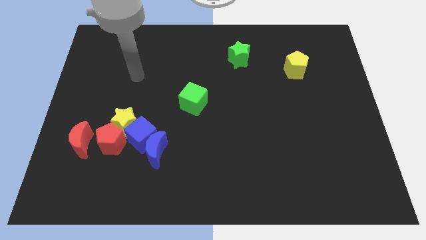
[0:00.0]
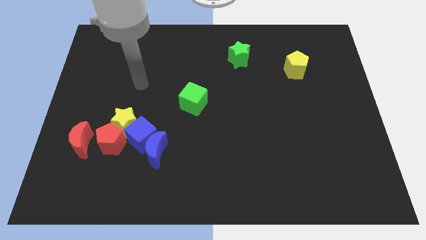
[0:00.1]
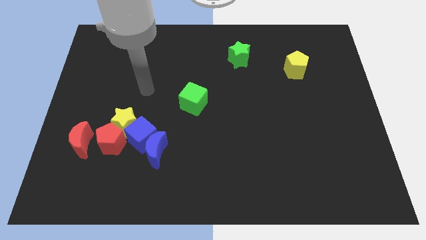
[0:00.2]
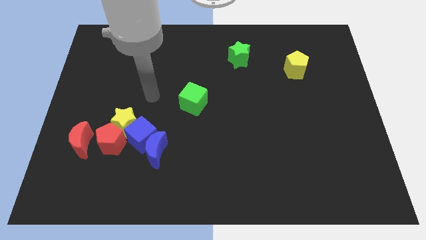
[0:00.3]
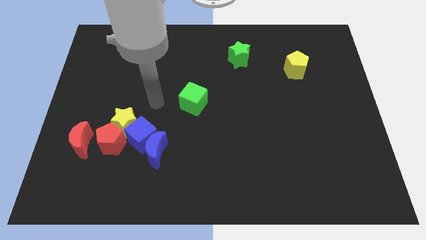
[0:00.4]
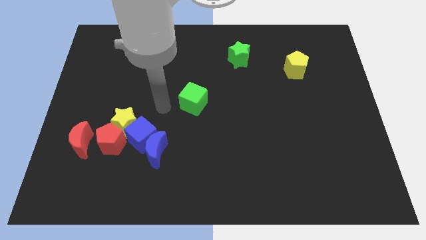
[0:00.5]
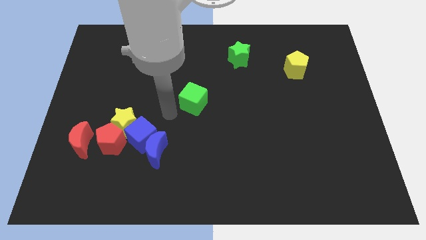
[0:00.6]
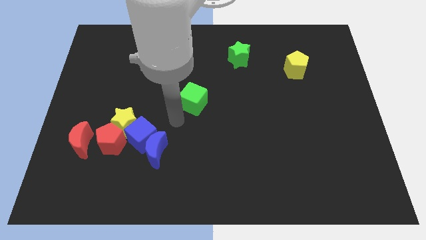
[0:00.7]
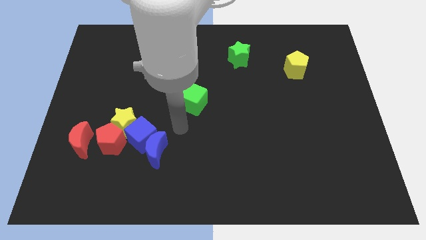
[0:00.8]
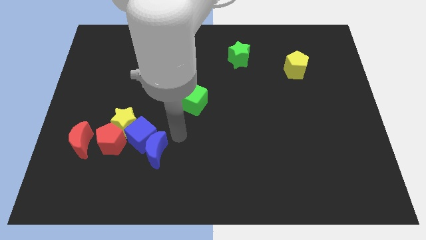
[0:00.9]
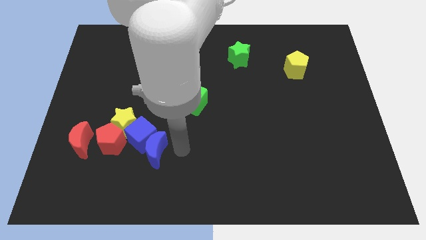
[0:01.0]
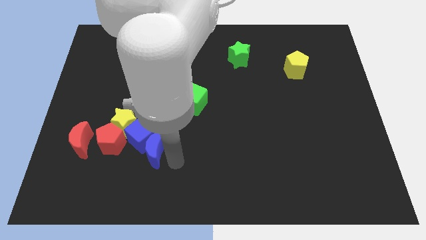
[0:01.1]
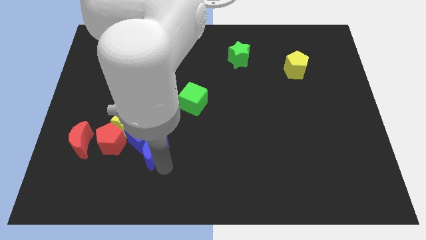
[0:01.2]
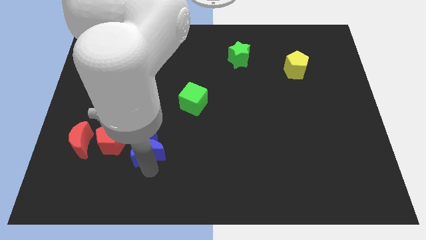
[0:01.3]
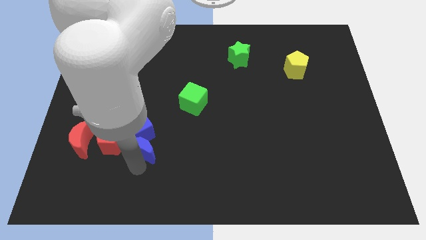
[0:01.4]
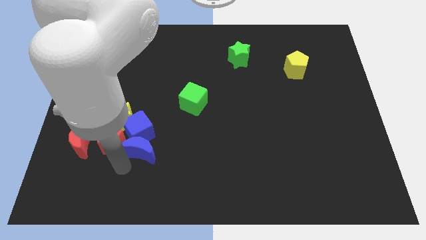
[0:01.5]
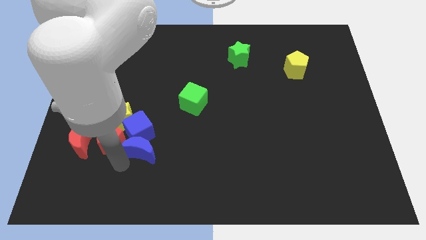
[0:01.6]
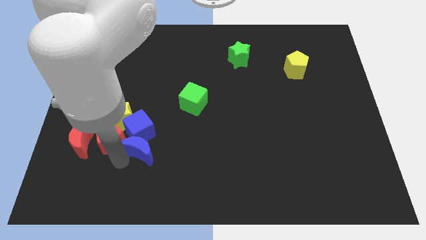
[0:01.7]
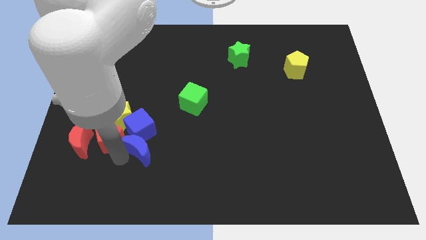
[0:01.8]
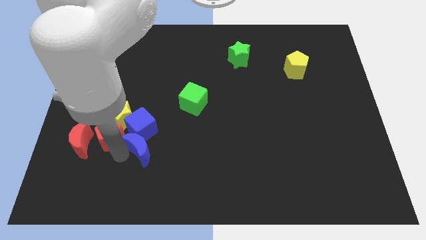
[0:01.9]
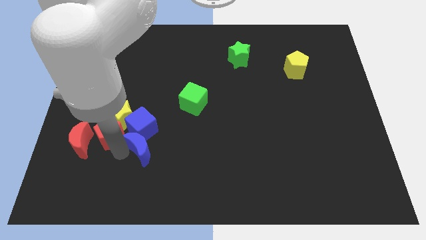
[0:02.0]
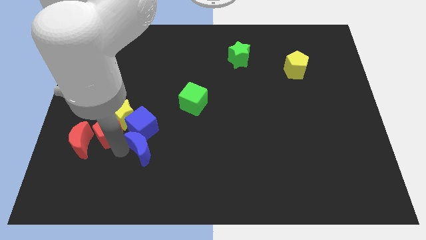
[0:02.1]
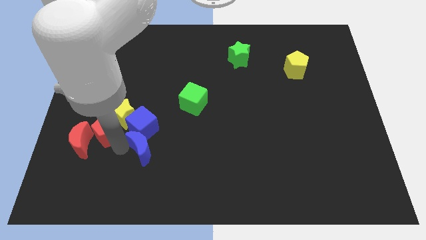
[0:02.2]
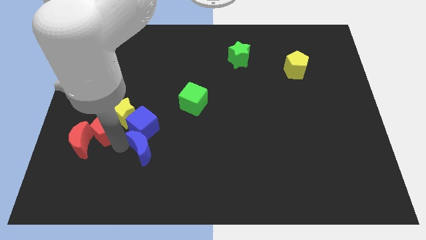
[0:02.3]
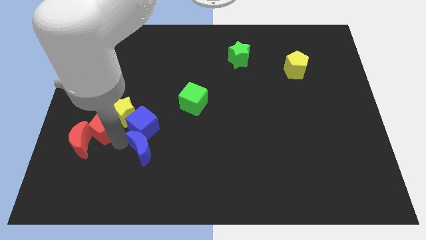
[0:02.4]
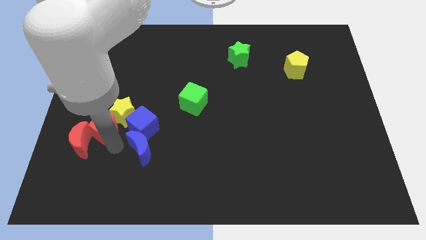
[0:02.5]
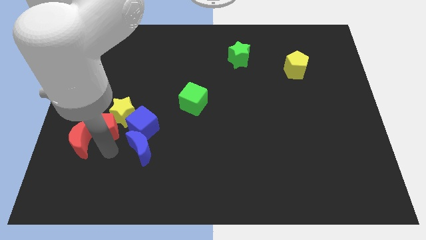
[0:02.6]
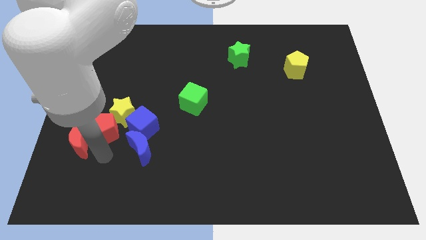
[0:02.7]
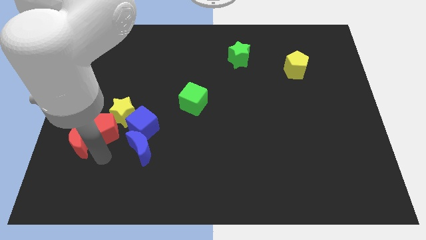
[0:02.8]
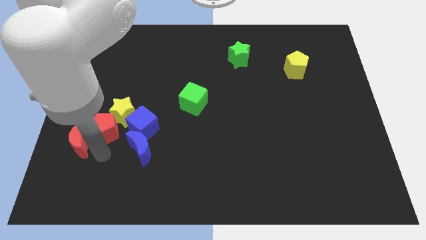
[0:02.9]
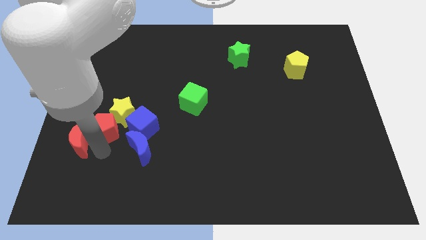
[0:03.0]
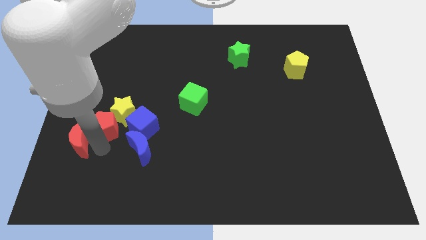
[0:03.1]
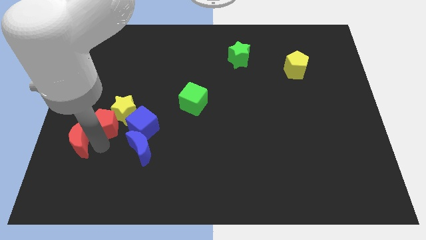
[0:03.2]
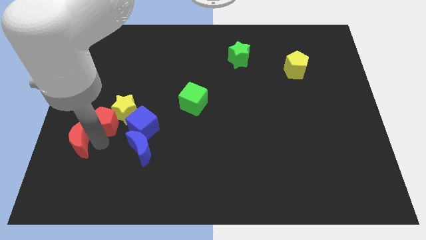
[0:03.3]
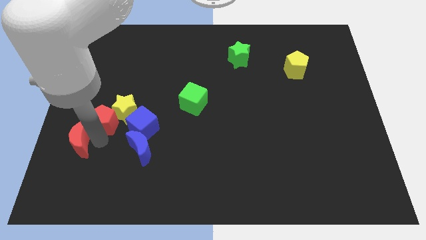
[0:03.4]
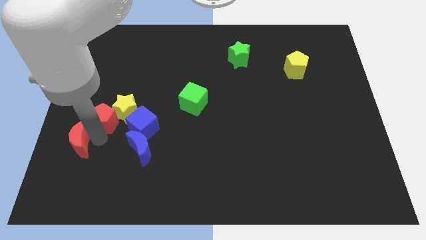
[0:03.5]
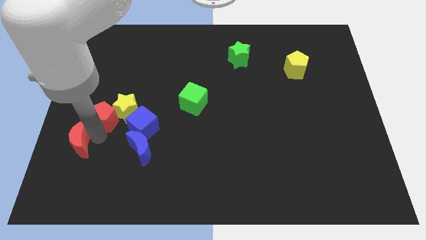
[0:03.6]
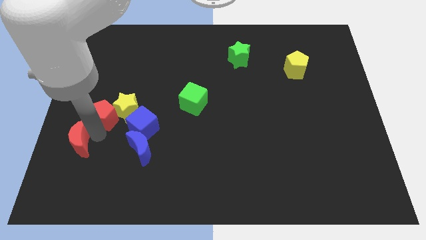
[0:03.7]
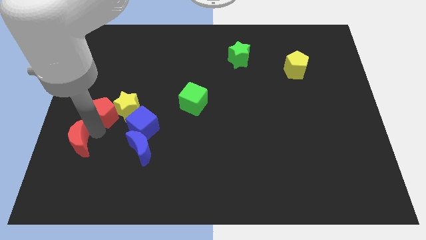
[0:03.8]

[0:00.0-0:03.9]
push the red pentagon slightly upwards

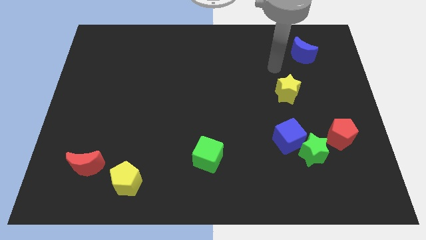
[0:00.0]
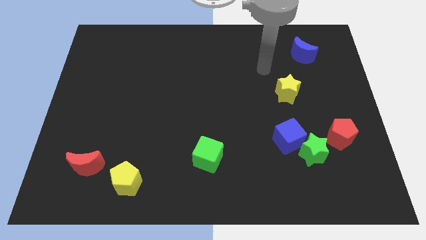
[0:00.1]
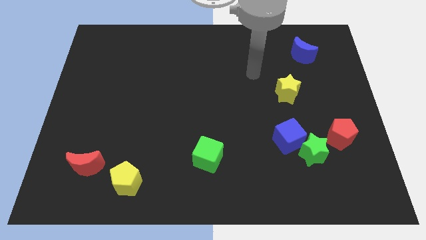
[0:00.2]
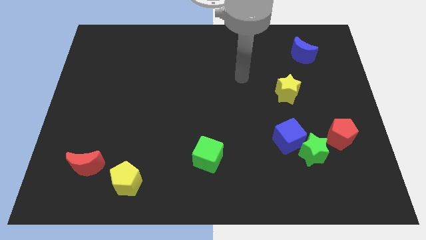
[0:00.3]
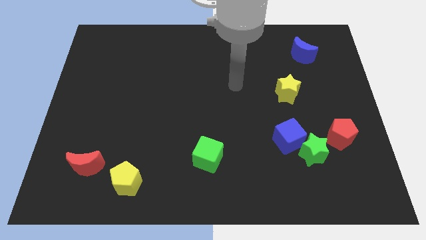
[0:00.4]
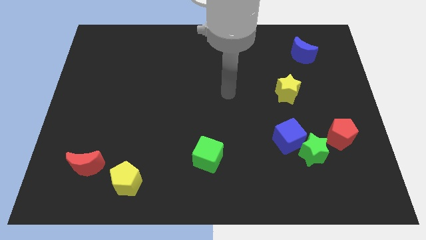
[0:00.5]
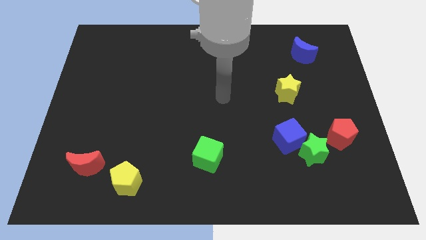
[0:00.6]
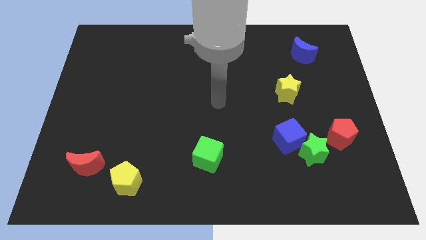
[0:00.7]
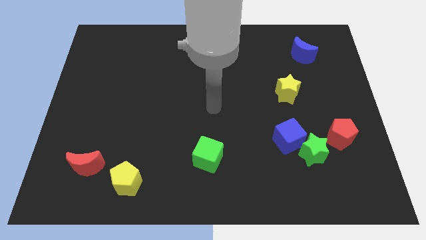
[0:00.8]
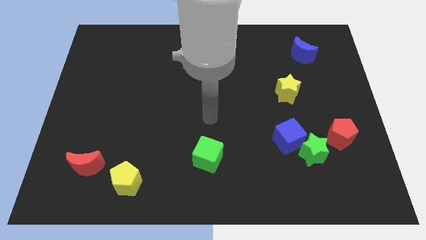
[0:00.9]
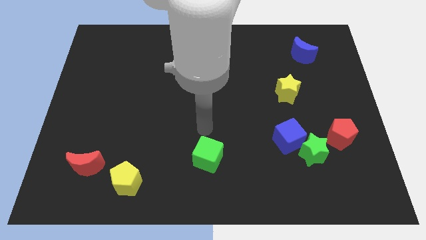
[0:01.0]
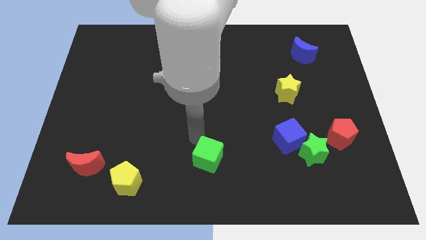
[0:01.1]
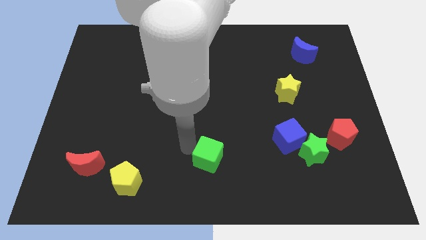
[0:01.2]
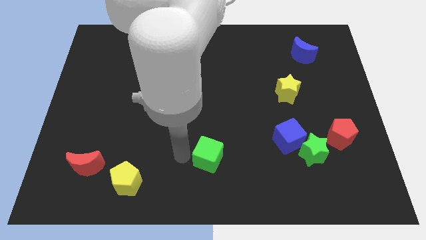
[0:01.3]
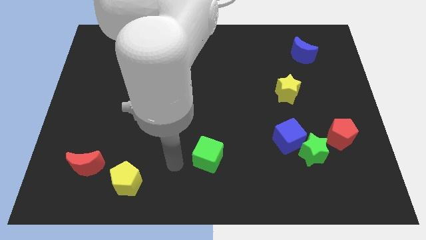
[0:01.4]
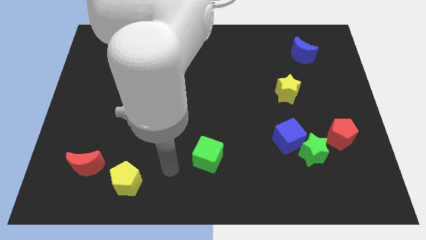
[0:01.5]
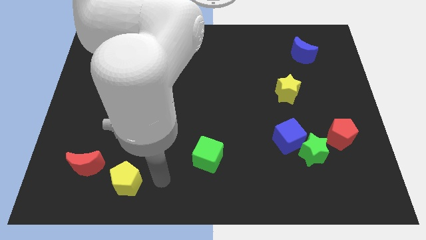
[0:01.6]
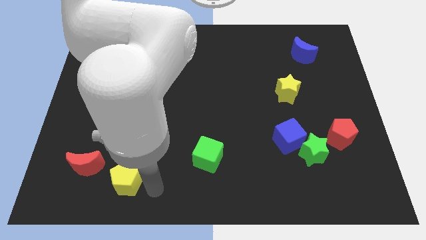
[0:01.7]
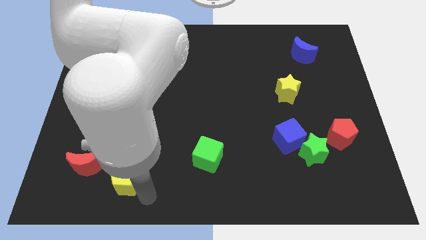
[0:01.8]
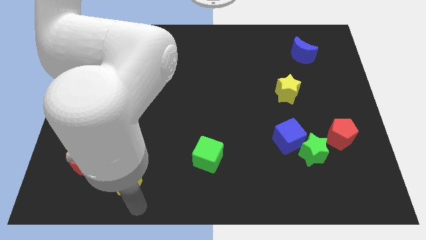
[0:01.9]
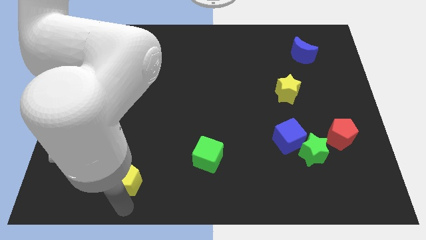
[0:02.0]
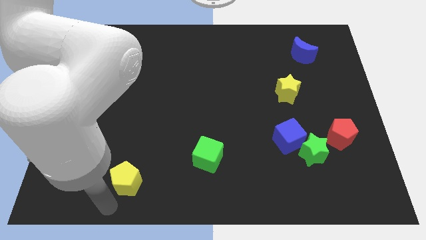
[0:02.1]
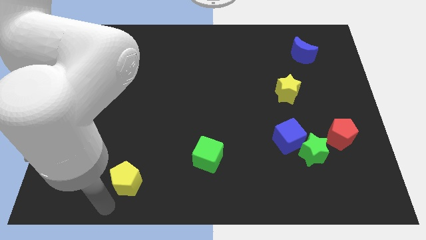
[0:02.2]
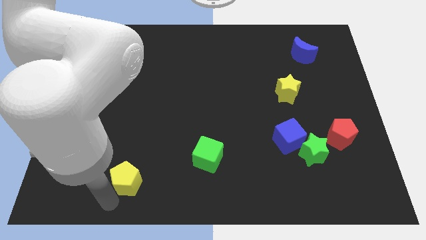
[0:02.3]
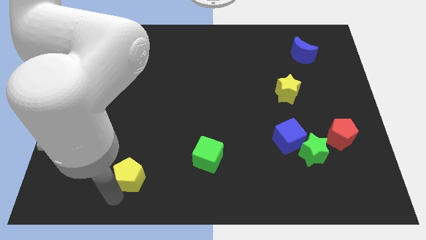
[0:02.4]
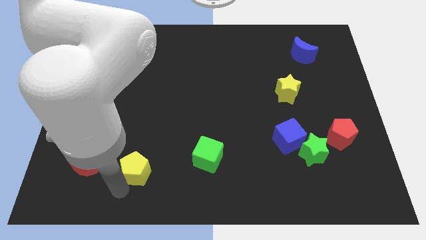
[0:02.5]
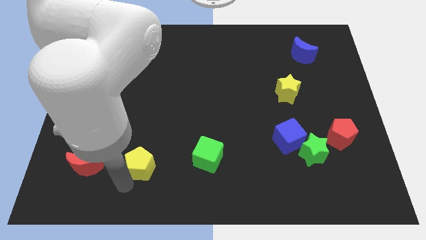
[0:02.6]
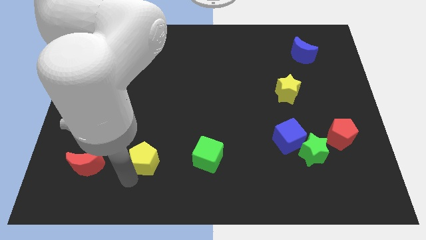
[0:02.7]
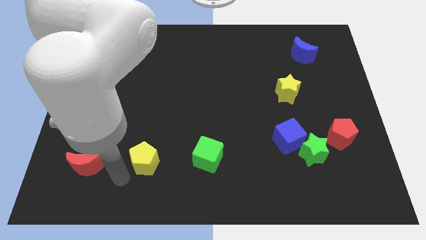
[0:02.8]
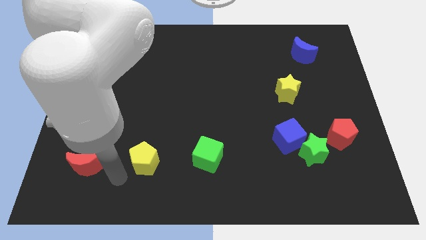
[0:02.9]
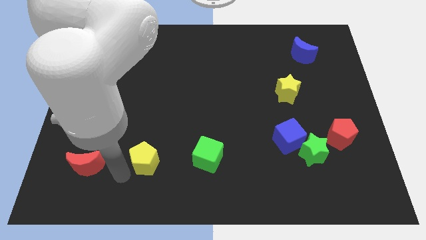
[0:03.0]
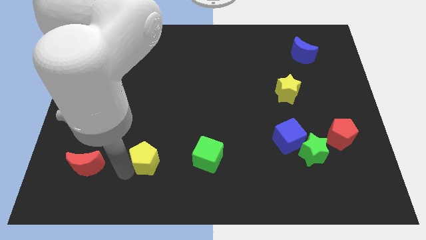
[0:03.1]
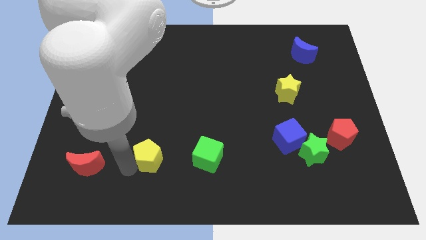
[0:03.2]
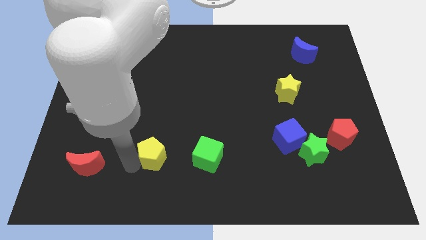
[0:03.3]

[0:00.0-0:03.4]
push the yellow pentagon a bit upwards and then right

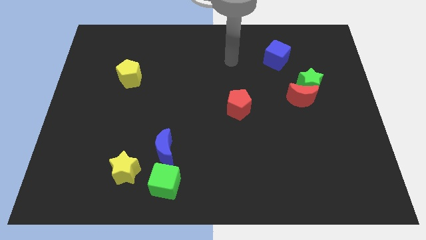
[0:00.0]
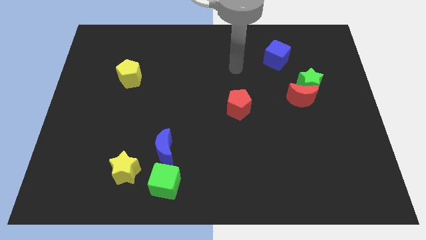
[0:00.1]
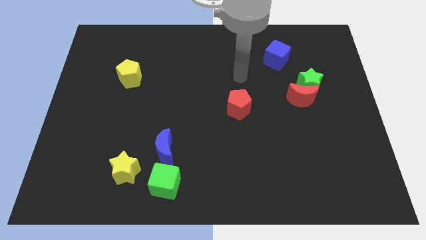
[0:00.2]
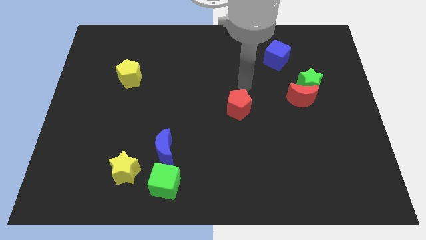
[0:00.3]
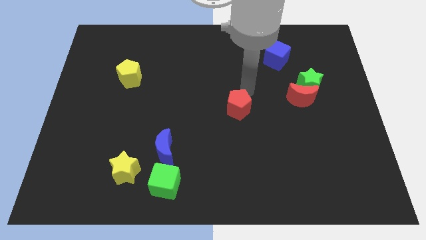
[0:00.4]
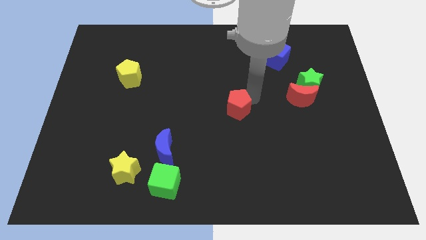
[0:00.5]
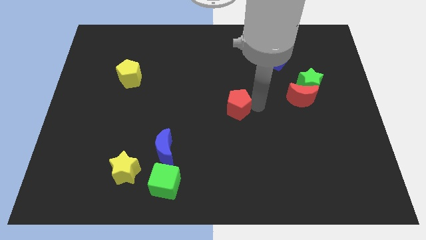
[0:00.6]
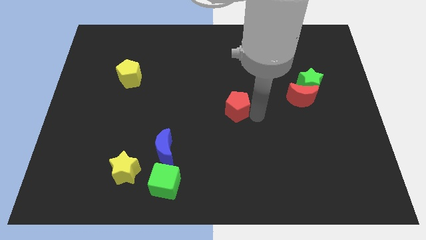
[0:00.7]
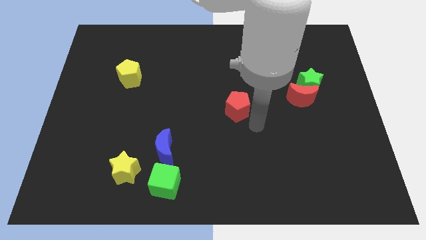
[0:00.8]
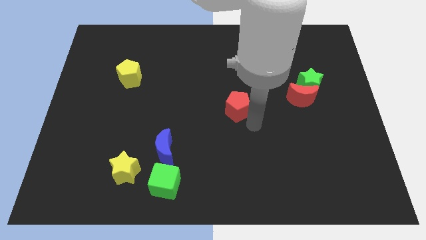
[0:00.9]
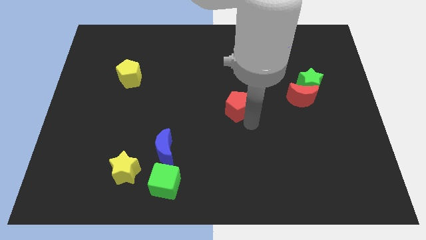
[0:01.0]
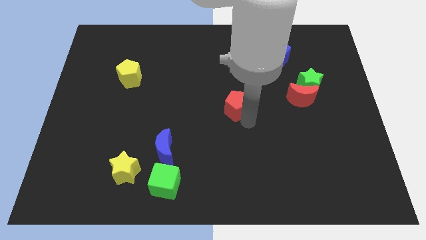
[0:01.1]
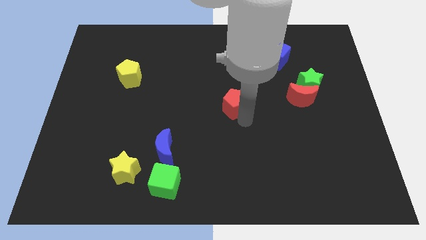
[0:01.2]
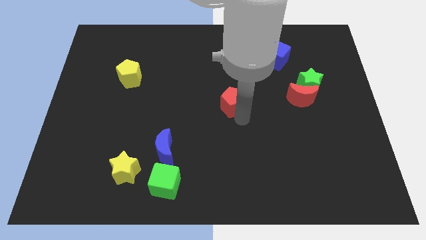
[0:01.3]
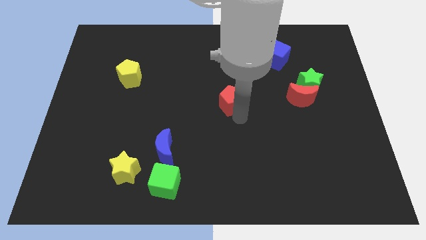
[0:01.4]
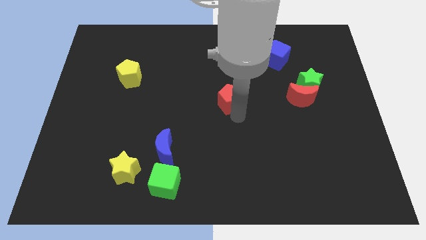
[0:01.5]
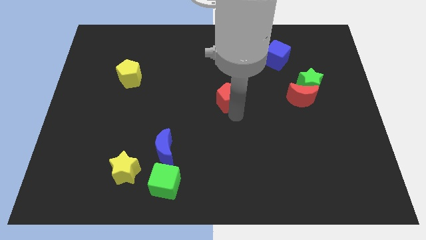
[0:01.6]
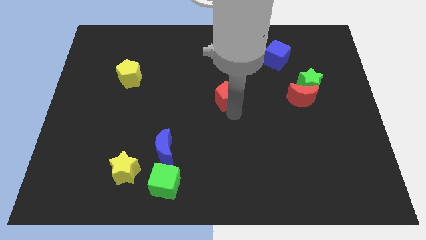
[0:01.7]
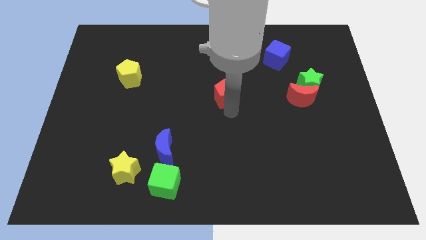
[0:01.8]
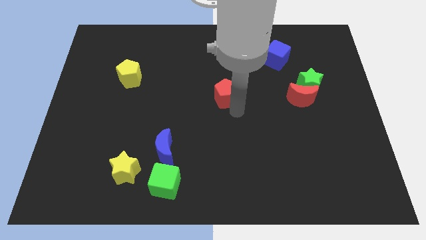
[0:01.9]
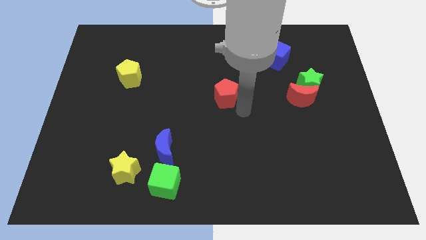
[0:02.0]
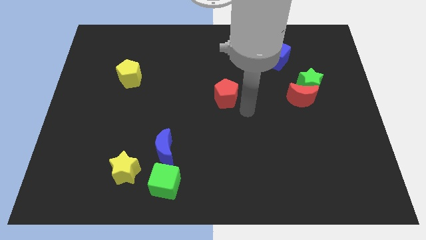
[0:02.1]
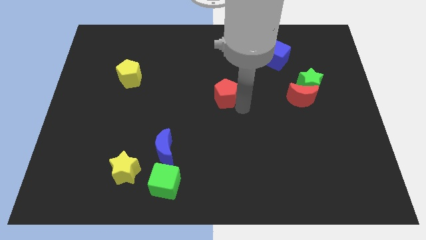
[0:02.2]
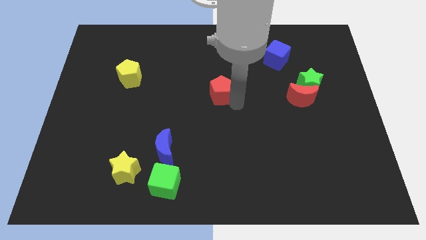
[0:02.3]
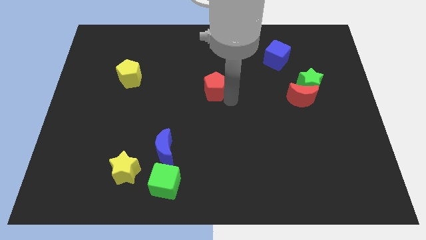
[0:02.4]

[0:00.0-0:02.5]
slide the red pentagon slightly up and then left
